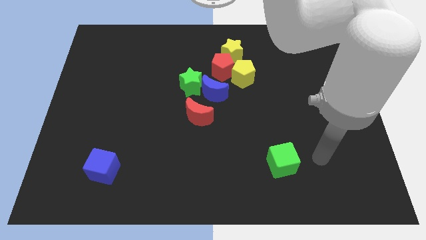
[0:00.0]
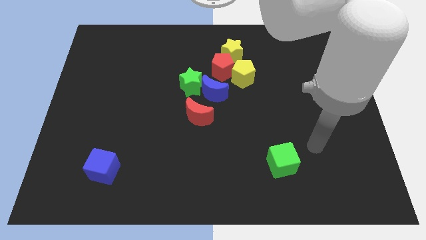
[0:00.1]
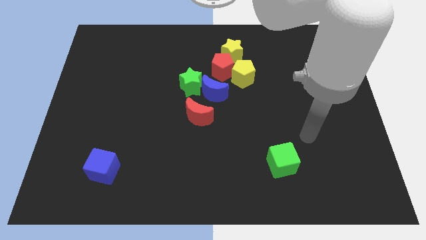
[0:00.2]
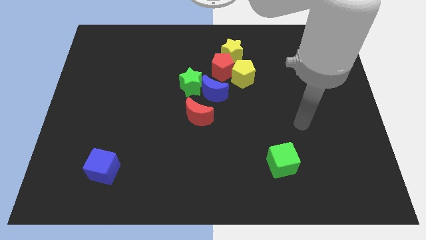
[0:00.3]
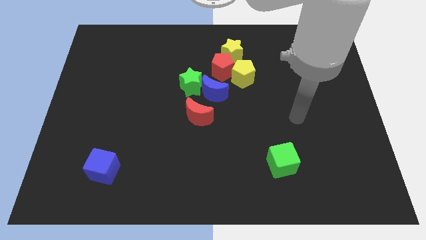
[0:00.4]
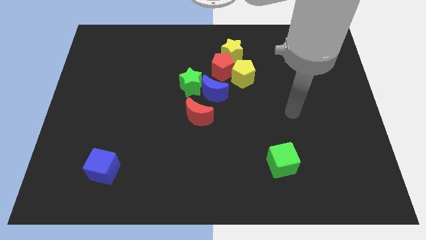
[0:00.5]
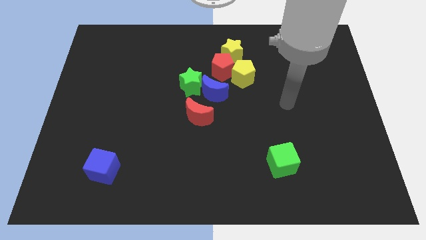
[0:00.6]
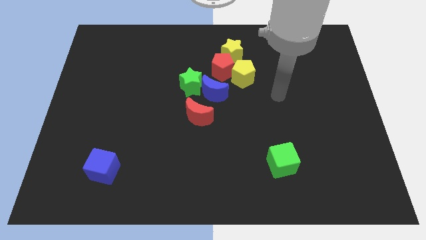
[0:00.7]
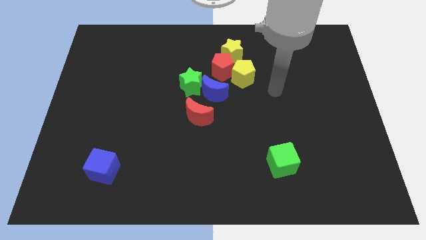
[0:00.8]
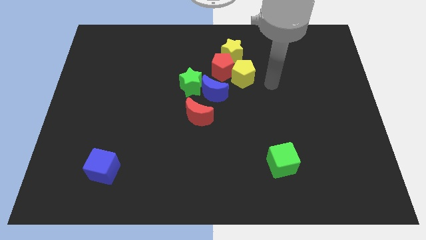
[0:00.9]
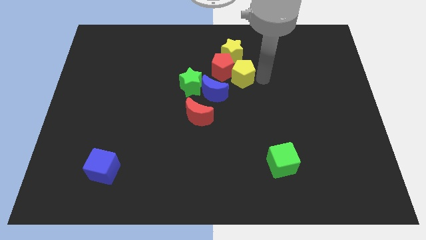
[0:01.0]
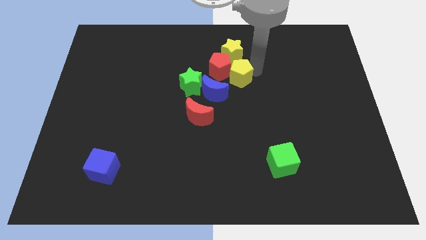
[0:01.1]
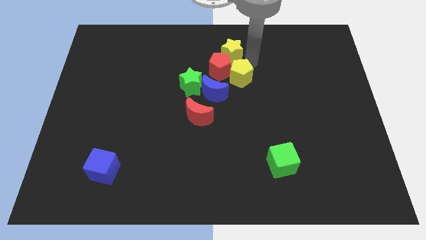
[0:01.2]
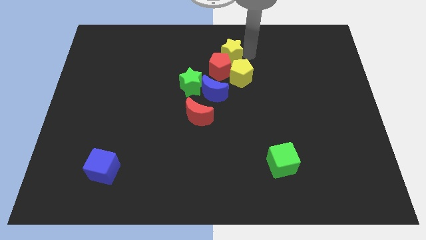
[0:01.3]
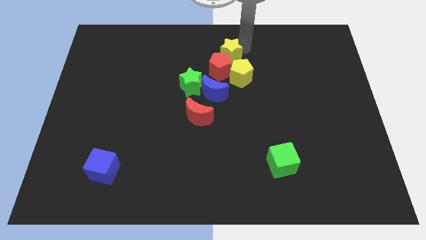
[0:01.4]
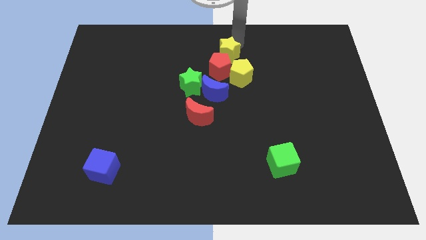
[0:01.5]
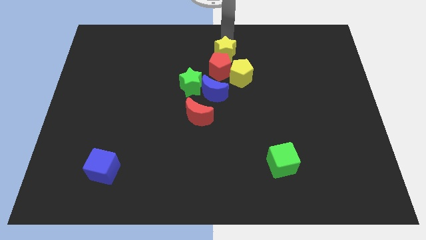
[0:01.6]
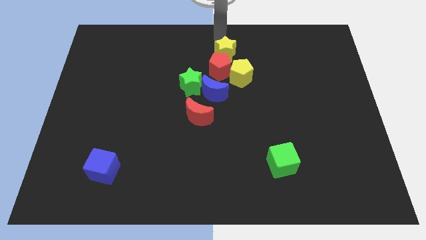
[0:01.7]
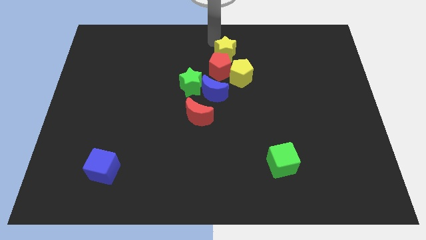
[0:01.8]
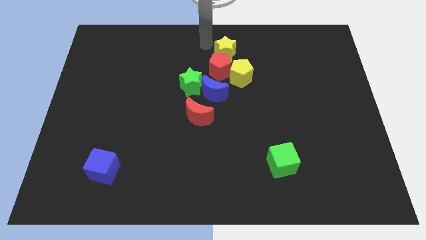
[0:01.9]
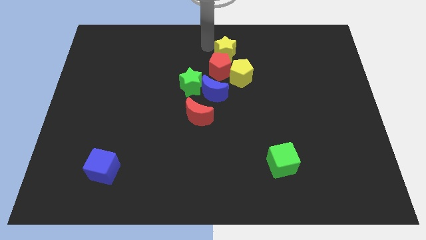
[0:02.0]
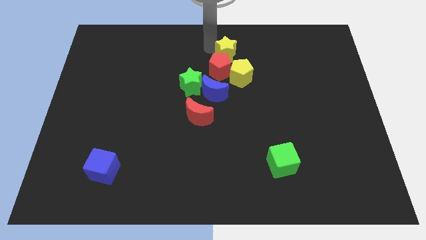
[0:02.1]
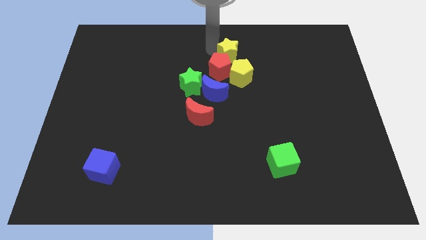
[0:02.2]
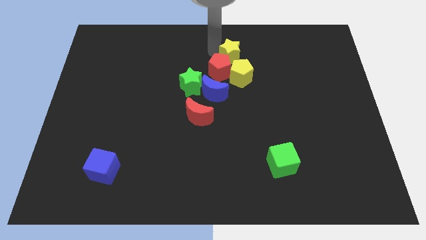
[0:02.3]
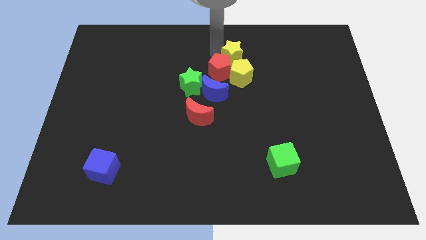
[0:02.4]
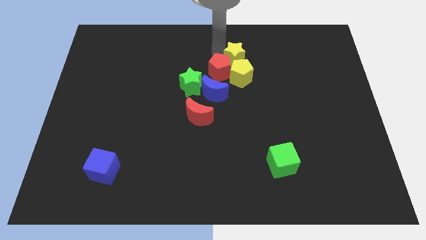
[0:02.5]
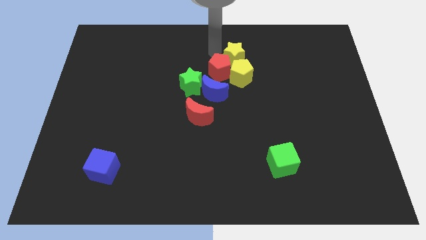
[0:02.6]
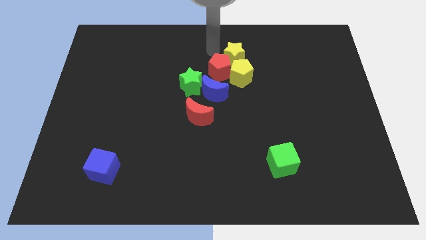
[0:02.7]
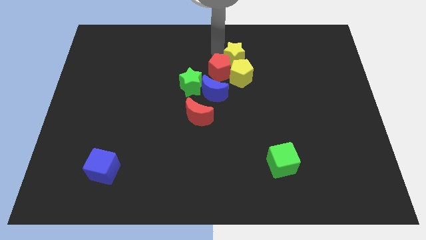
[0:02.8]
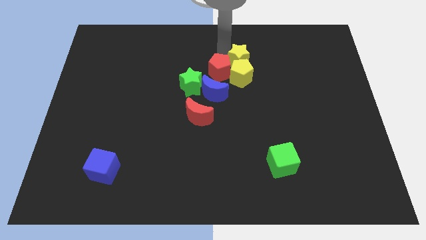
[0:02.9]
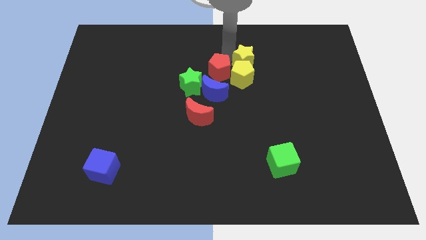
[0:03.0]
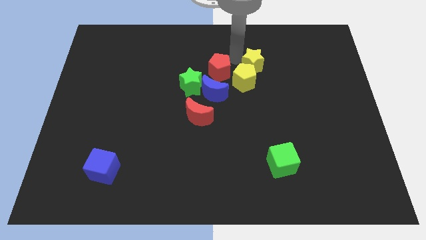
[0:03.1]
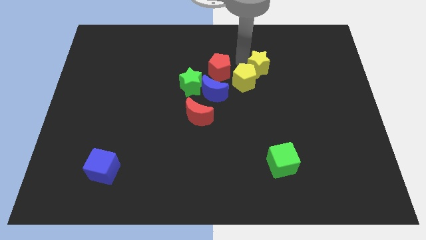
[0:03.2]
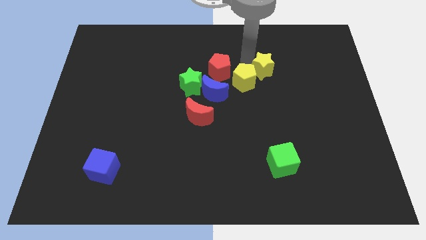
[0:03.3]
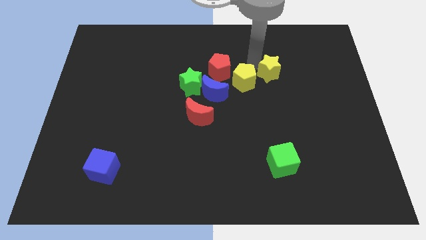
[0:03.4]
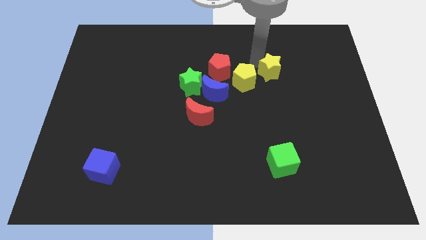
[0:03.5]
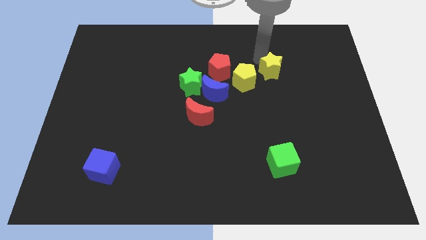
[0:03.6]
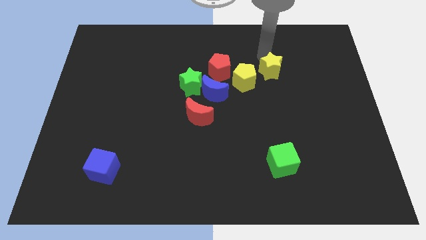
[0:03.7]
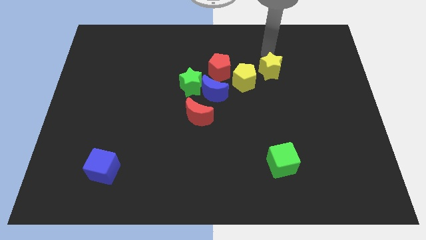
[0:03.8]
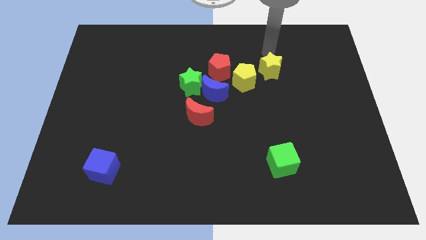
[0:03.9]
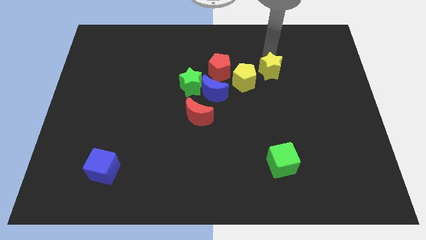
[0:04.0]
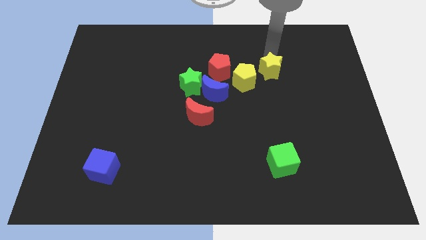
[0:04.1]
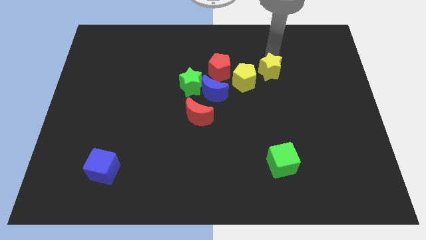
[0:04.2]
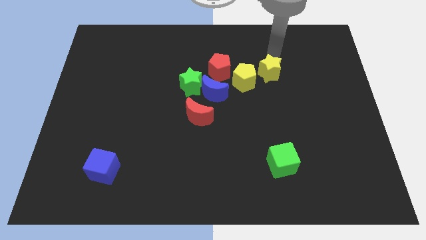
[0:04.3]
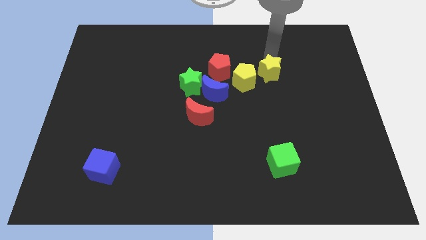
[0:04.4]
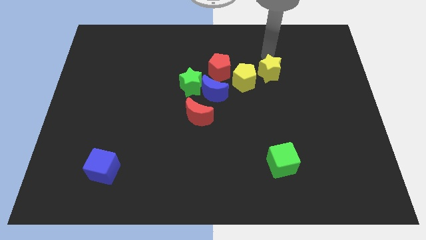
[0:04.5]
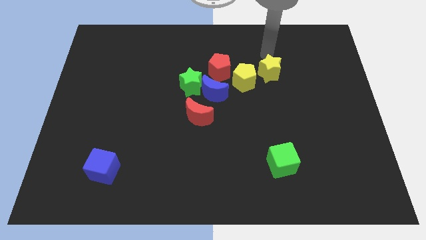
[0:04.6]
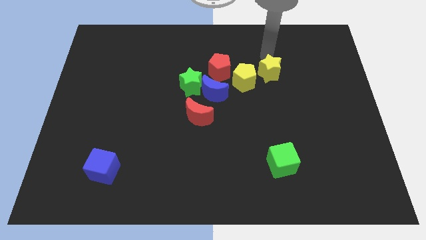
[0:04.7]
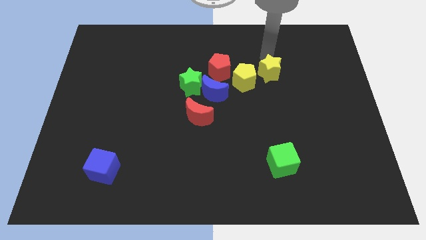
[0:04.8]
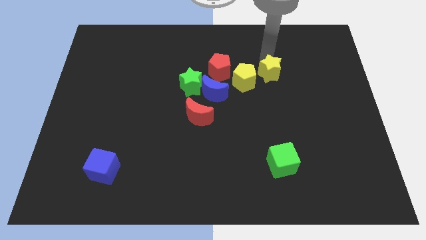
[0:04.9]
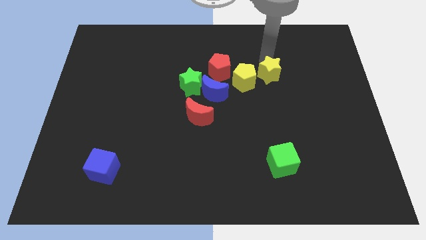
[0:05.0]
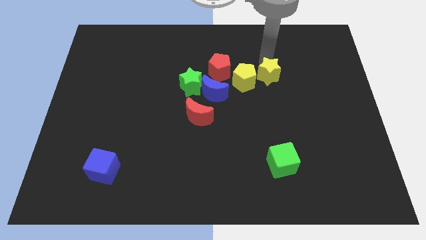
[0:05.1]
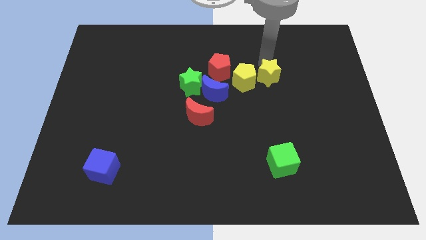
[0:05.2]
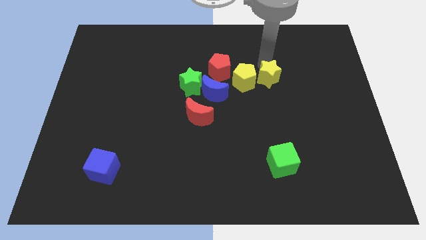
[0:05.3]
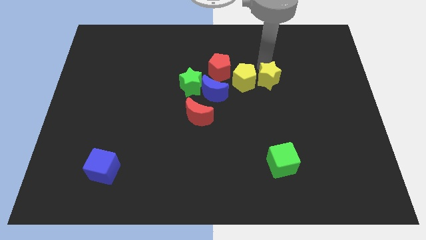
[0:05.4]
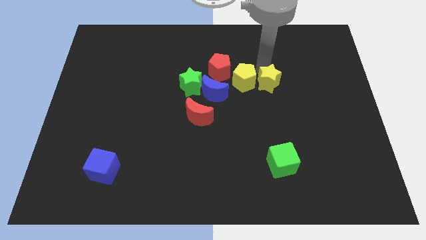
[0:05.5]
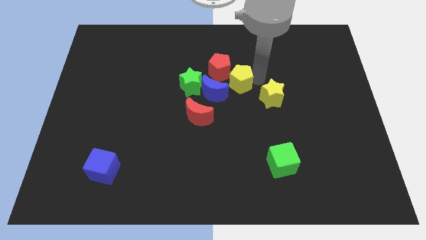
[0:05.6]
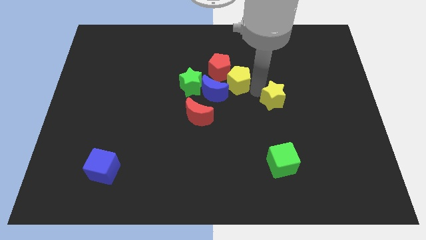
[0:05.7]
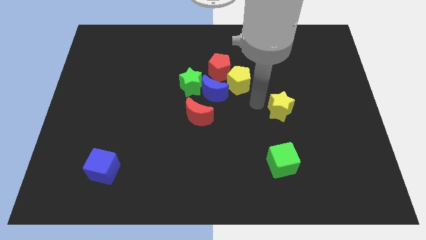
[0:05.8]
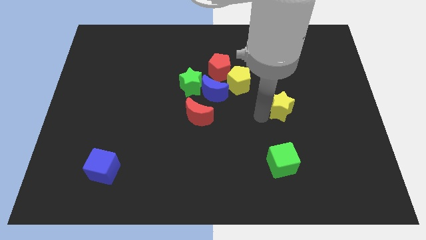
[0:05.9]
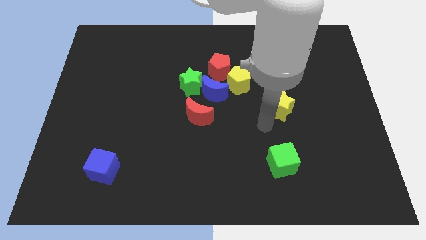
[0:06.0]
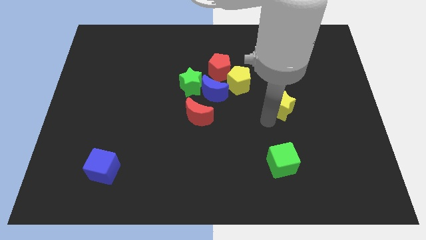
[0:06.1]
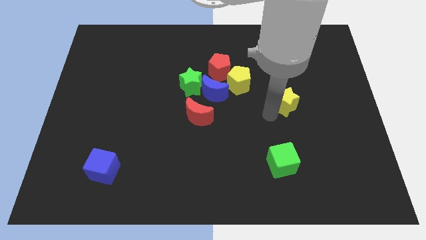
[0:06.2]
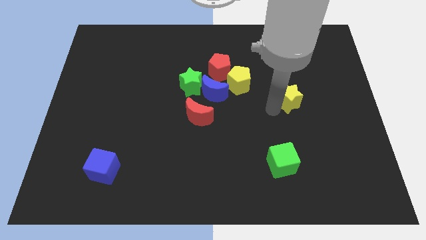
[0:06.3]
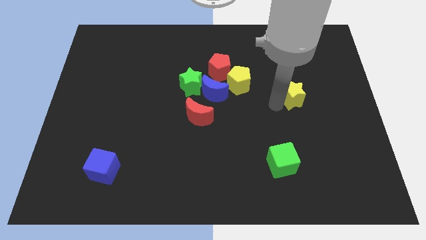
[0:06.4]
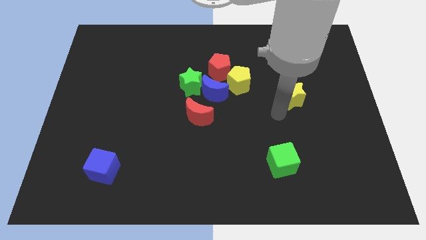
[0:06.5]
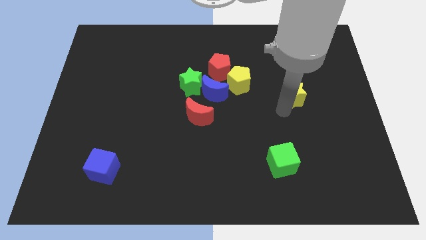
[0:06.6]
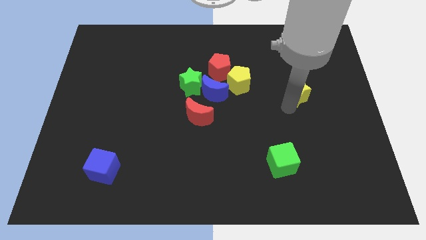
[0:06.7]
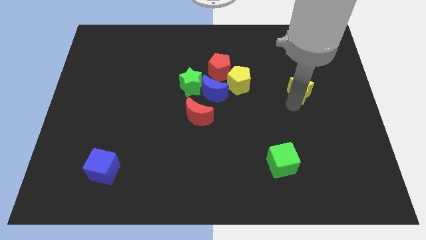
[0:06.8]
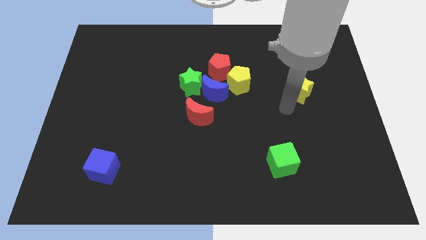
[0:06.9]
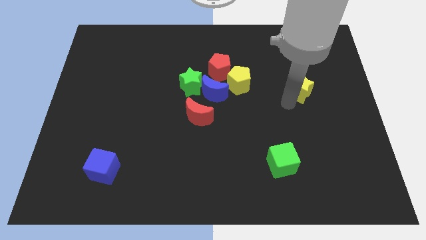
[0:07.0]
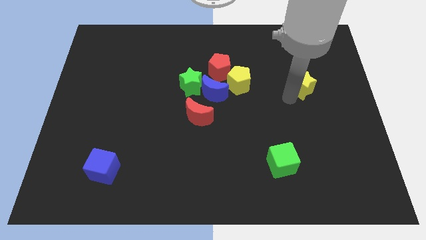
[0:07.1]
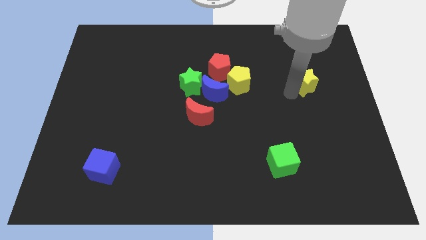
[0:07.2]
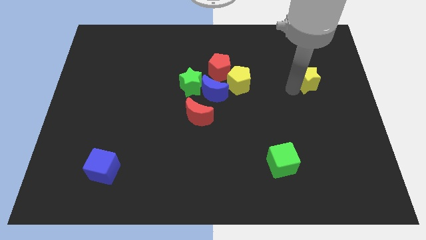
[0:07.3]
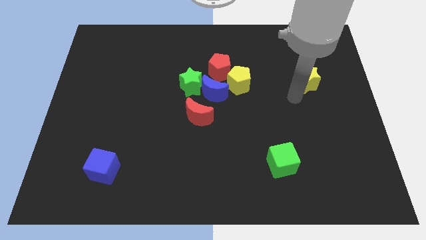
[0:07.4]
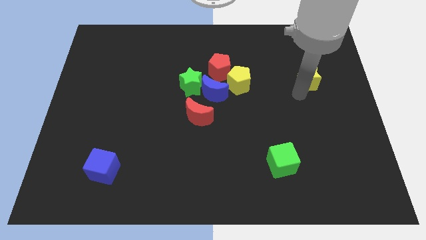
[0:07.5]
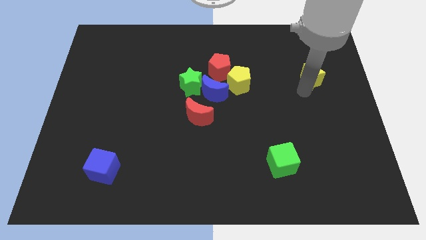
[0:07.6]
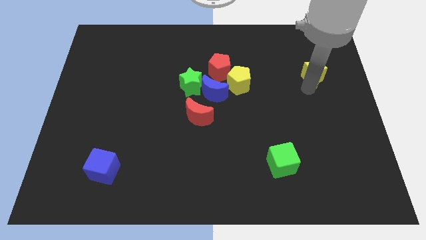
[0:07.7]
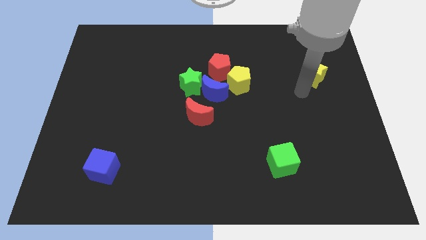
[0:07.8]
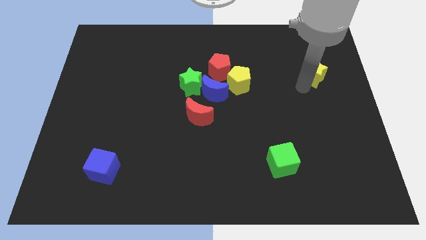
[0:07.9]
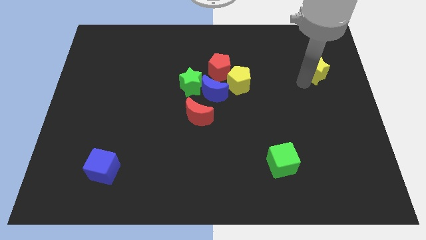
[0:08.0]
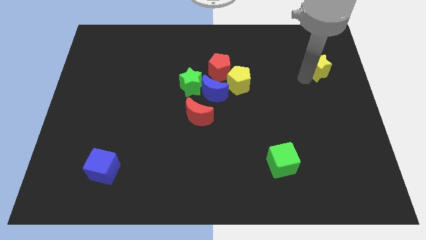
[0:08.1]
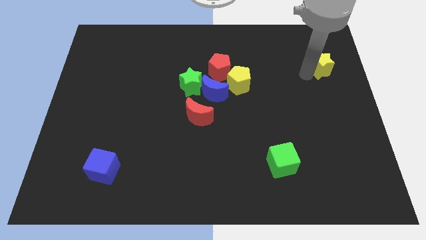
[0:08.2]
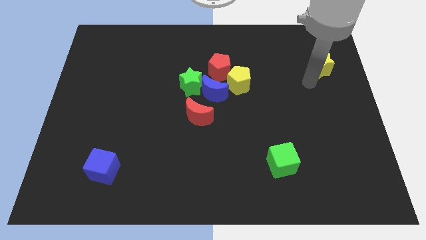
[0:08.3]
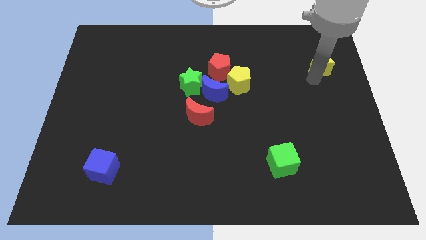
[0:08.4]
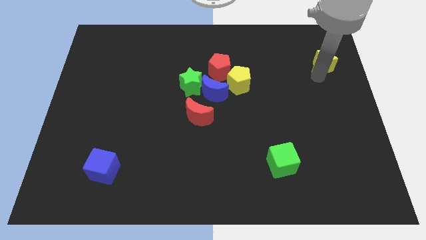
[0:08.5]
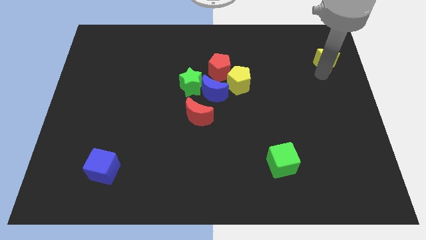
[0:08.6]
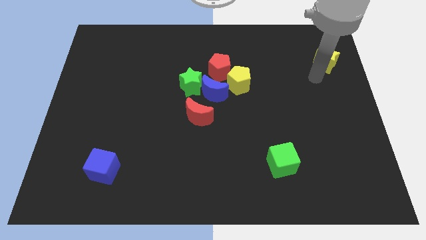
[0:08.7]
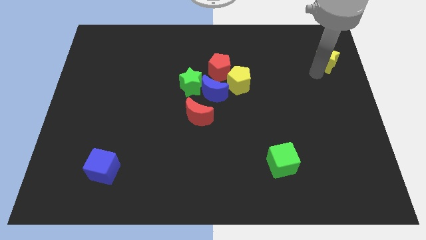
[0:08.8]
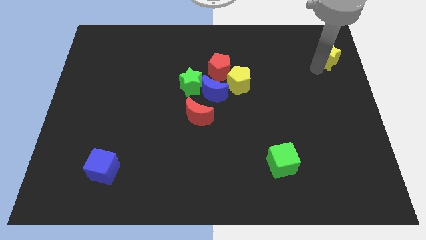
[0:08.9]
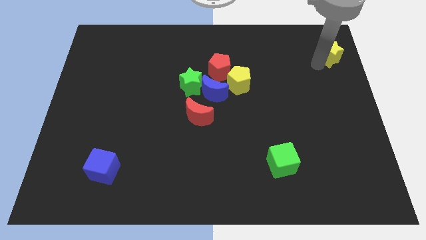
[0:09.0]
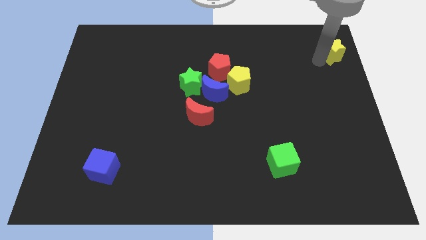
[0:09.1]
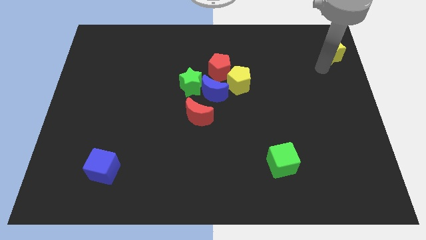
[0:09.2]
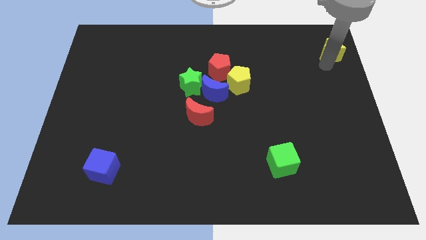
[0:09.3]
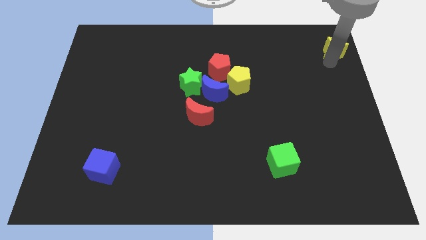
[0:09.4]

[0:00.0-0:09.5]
slide the yellow star to the upper right corner
